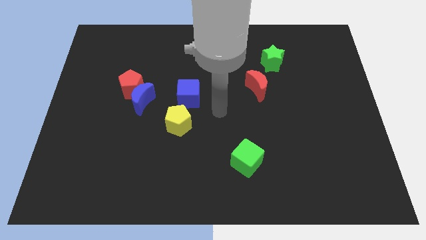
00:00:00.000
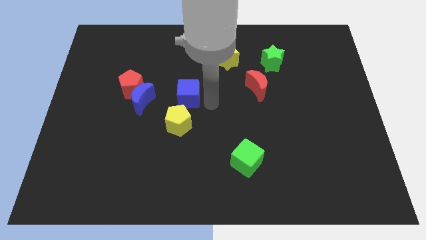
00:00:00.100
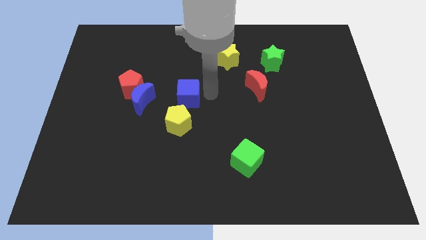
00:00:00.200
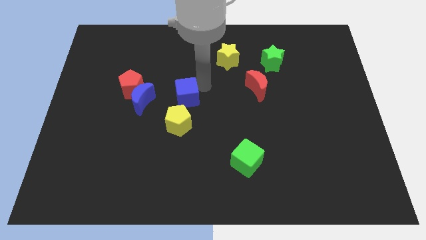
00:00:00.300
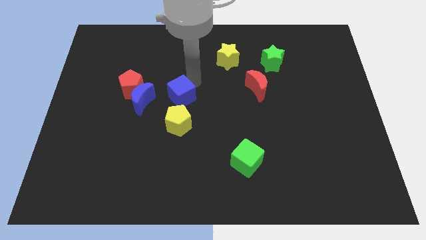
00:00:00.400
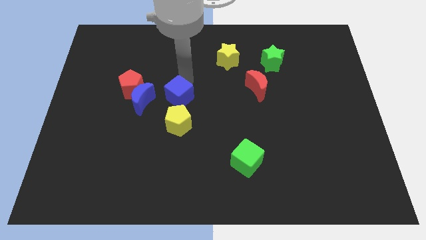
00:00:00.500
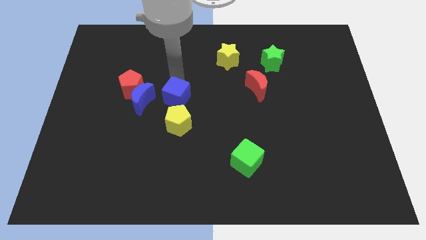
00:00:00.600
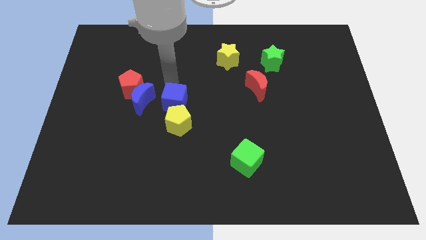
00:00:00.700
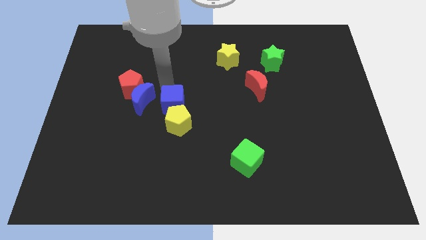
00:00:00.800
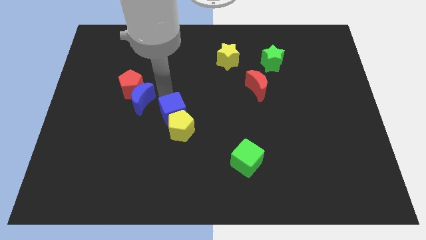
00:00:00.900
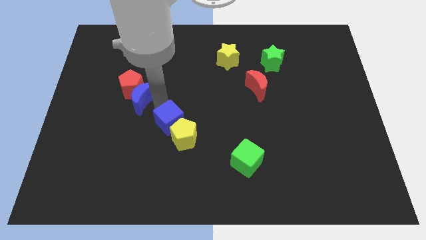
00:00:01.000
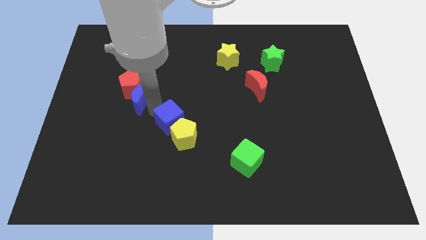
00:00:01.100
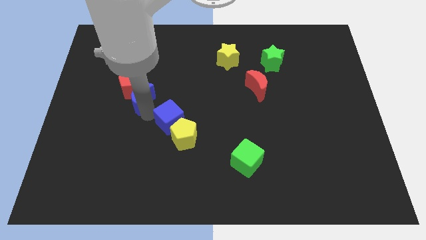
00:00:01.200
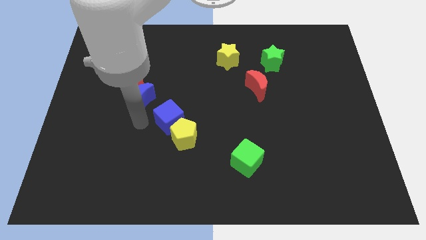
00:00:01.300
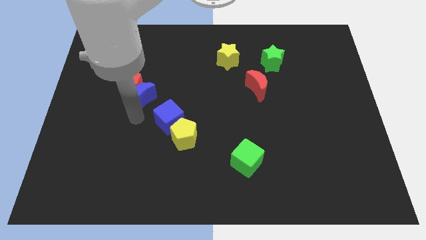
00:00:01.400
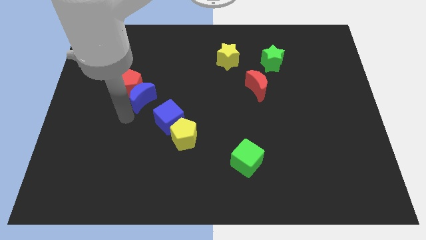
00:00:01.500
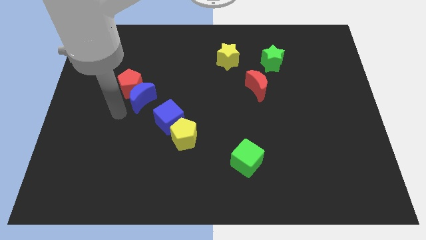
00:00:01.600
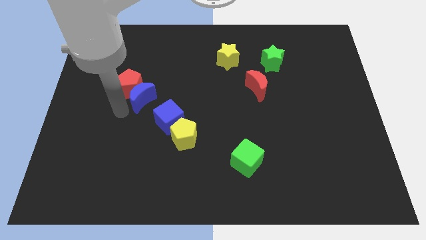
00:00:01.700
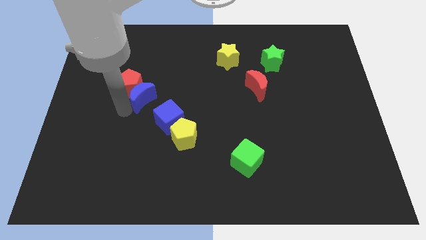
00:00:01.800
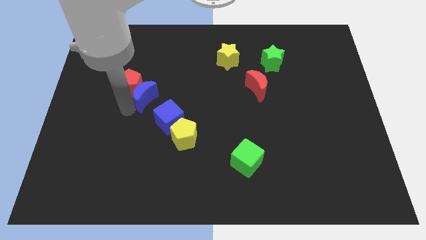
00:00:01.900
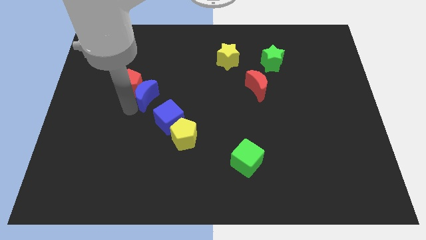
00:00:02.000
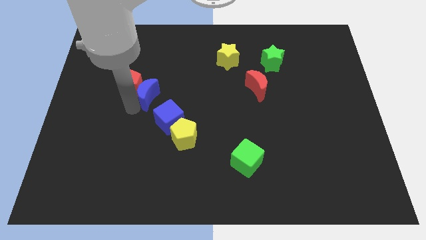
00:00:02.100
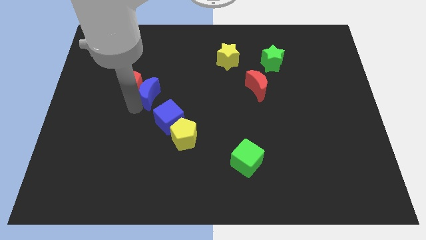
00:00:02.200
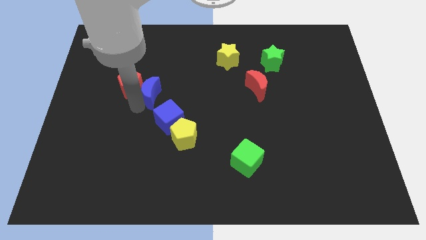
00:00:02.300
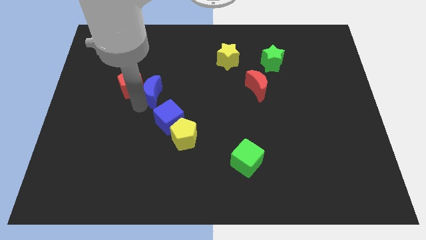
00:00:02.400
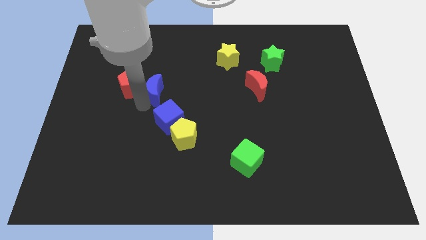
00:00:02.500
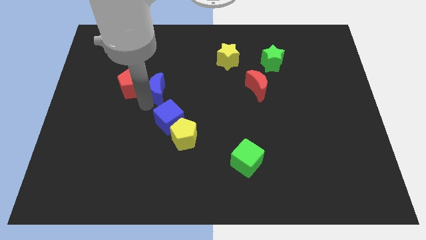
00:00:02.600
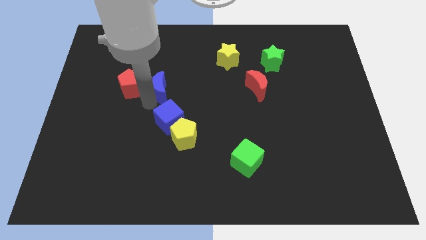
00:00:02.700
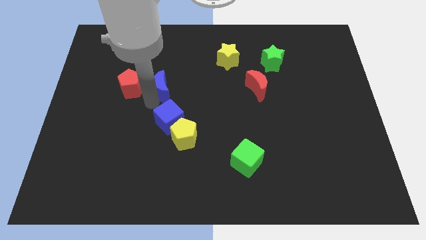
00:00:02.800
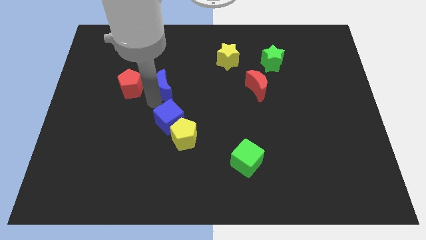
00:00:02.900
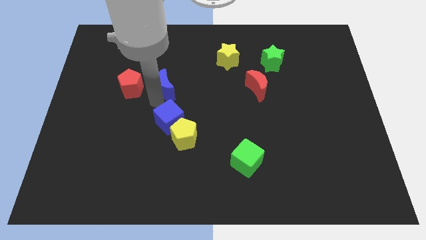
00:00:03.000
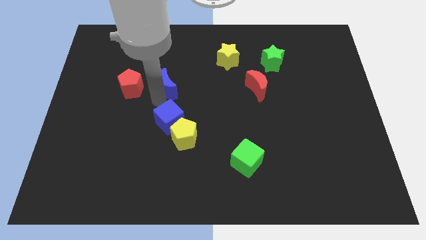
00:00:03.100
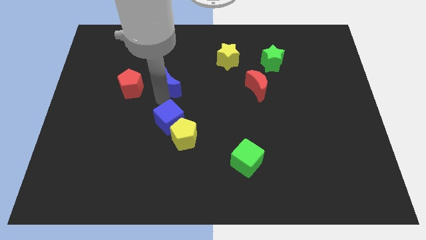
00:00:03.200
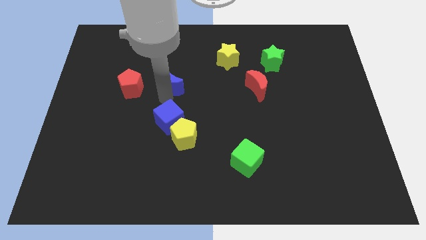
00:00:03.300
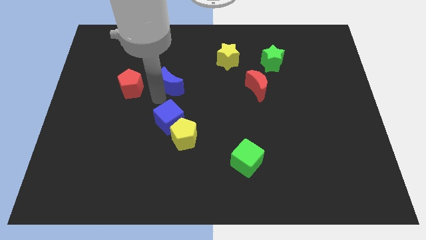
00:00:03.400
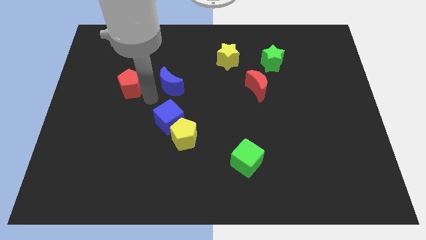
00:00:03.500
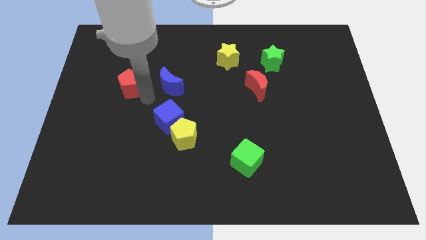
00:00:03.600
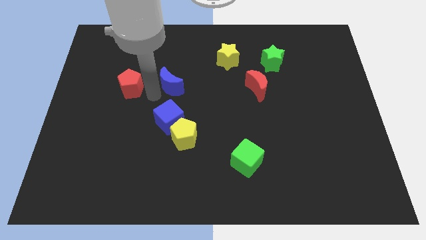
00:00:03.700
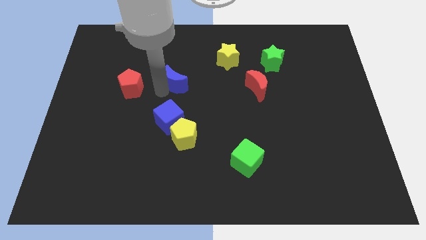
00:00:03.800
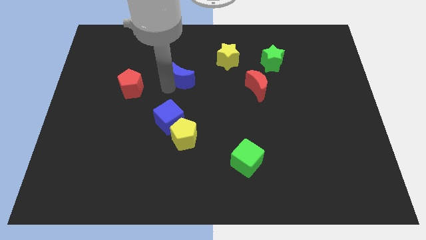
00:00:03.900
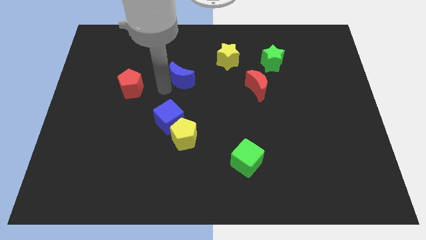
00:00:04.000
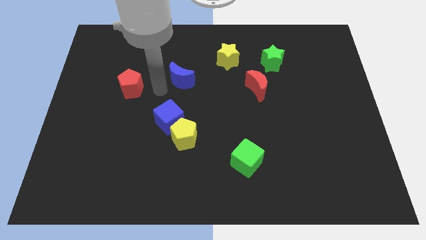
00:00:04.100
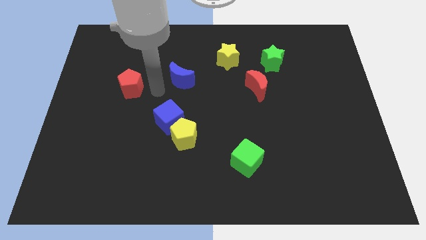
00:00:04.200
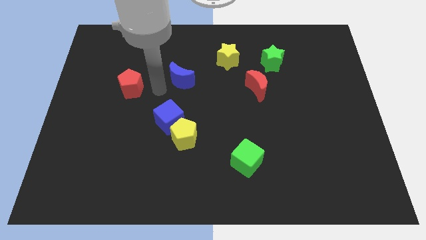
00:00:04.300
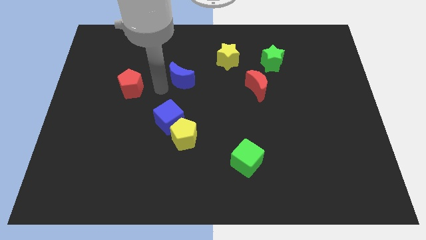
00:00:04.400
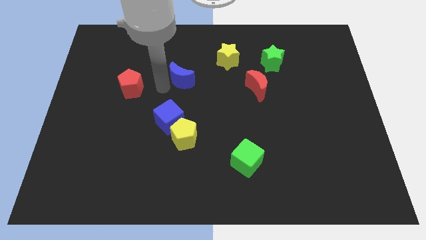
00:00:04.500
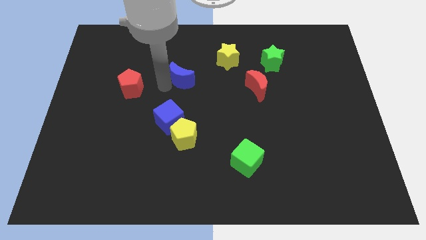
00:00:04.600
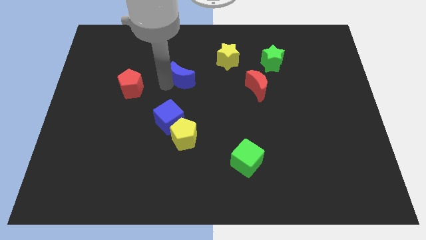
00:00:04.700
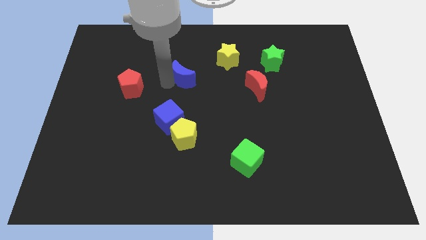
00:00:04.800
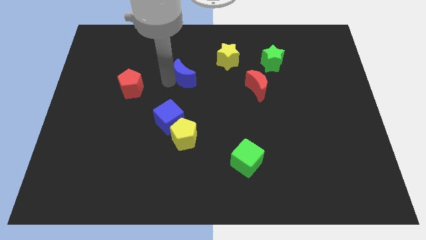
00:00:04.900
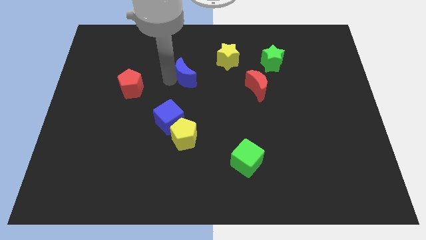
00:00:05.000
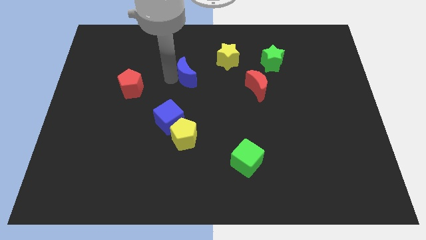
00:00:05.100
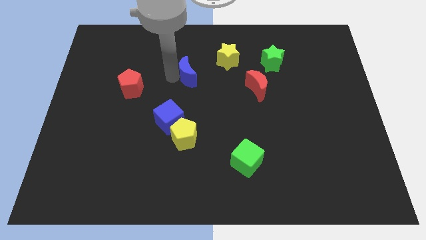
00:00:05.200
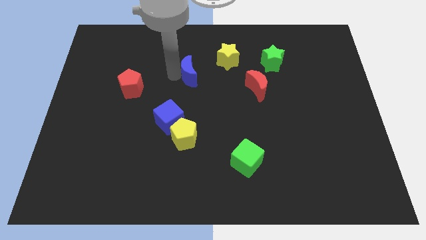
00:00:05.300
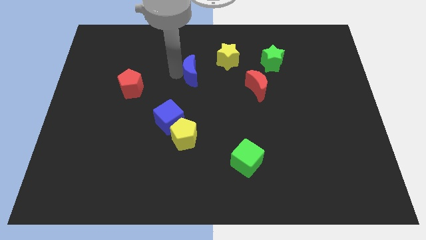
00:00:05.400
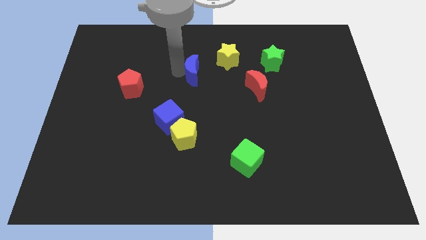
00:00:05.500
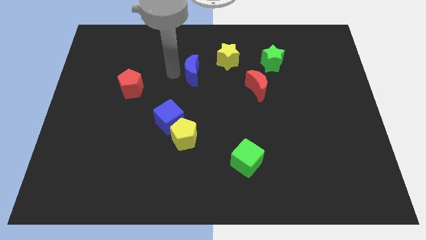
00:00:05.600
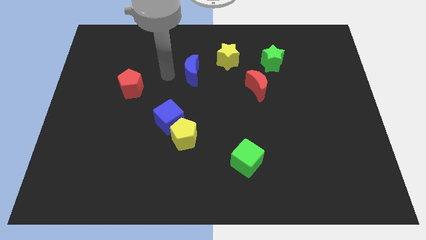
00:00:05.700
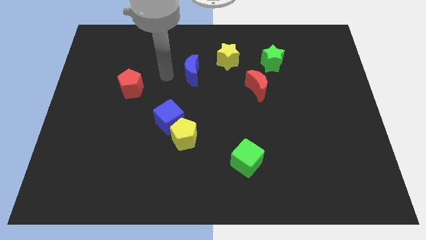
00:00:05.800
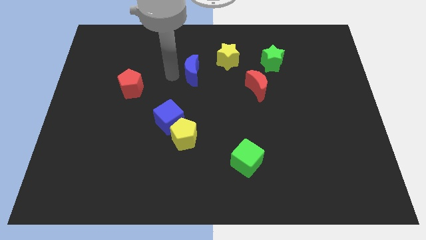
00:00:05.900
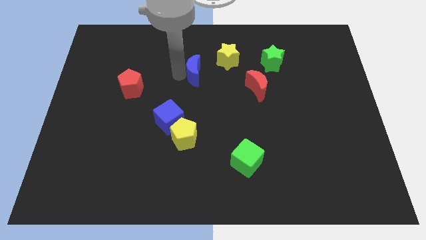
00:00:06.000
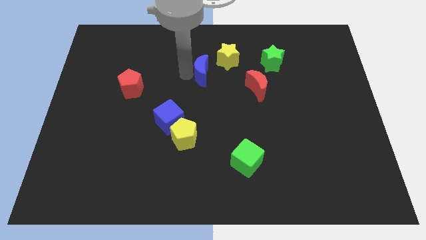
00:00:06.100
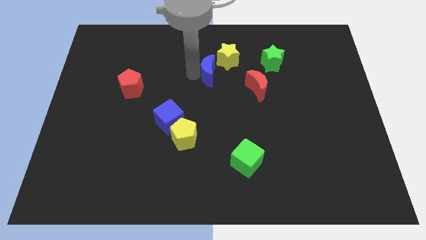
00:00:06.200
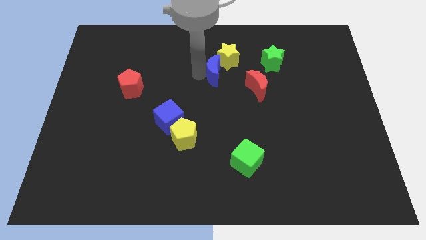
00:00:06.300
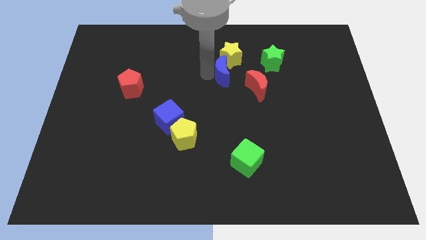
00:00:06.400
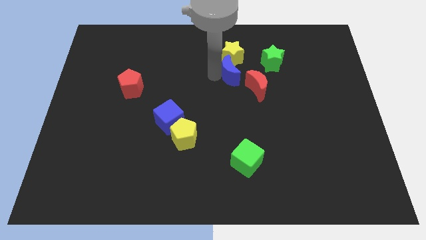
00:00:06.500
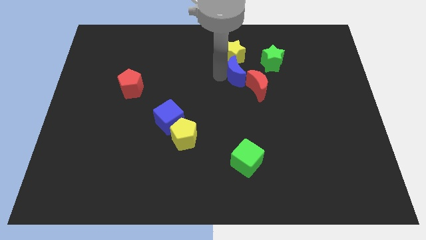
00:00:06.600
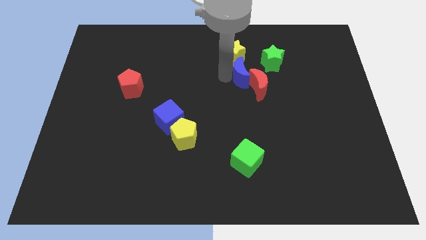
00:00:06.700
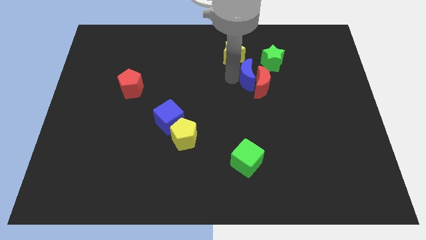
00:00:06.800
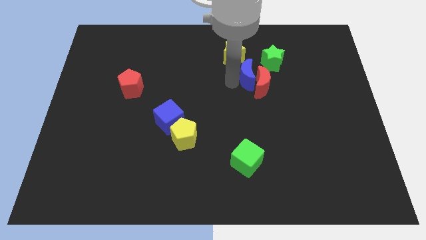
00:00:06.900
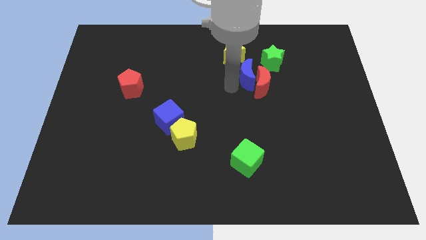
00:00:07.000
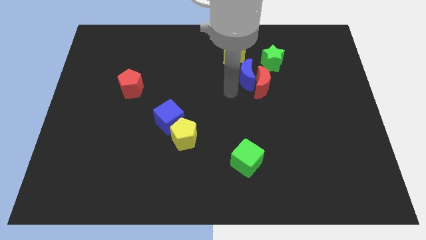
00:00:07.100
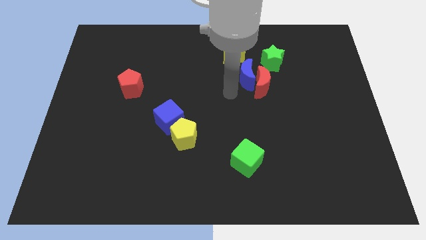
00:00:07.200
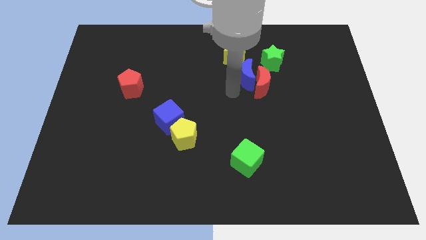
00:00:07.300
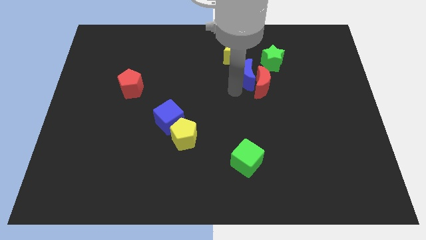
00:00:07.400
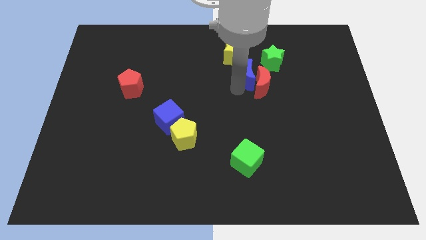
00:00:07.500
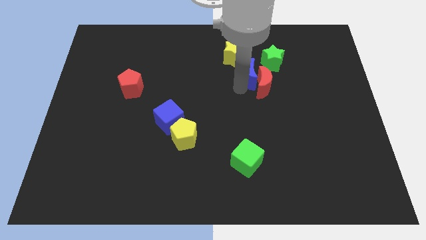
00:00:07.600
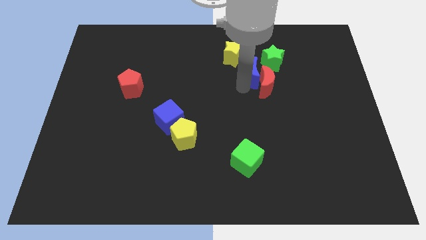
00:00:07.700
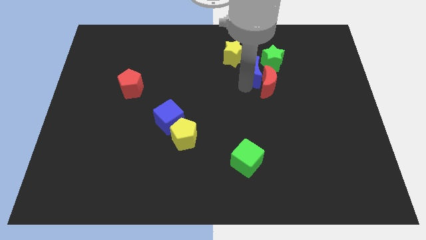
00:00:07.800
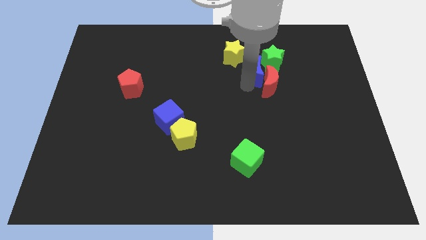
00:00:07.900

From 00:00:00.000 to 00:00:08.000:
put the blue moon close to the green star
